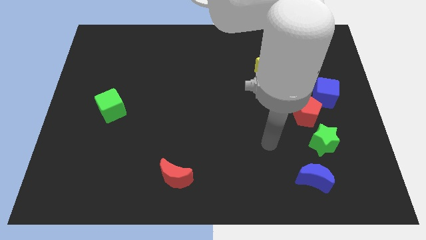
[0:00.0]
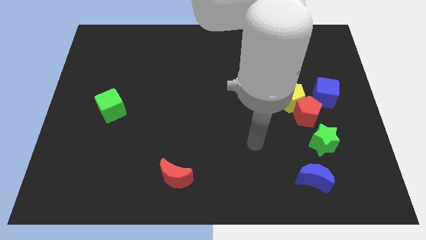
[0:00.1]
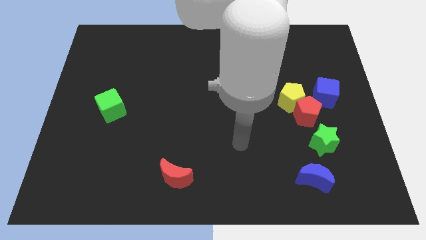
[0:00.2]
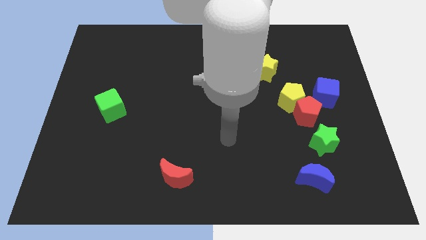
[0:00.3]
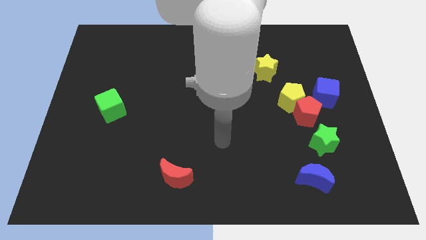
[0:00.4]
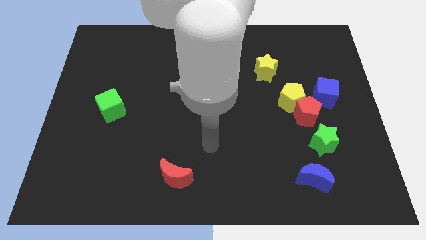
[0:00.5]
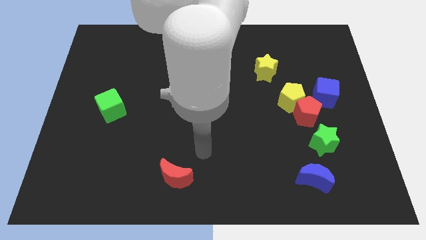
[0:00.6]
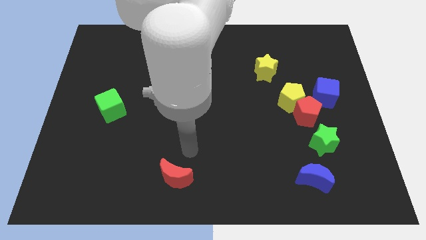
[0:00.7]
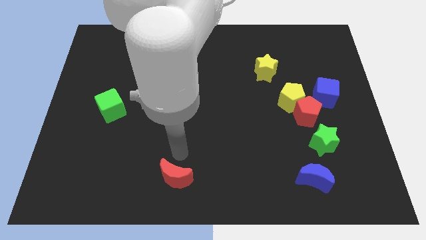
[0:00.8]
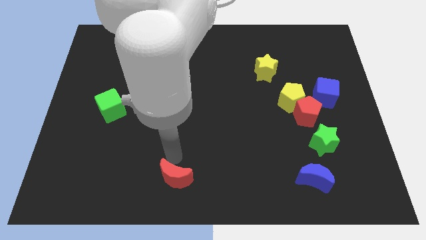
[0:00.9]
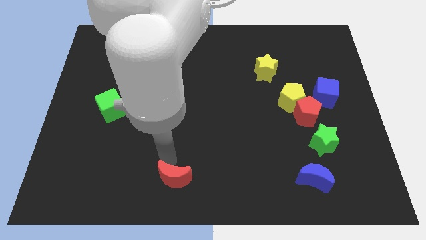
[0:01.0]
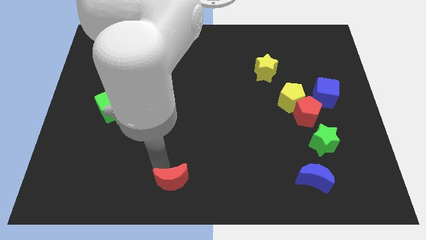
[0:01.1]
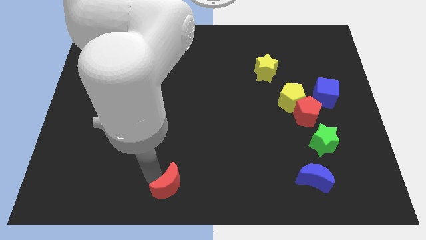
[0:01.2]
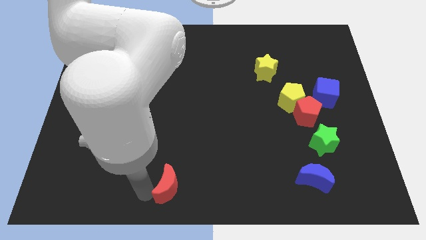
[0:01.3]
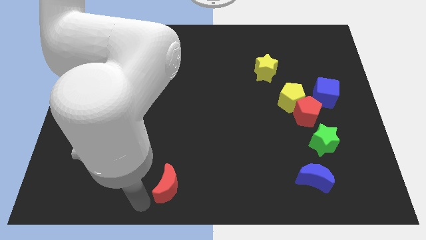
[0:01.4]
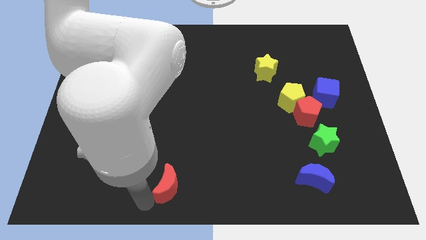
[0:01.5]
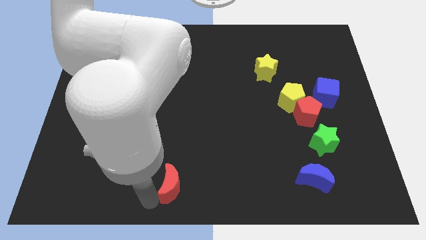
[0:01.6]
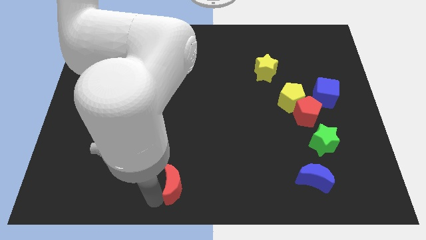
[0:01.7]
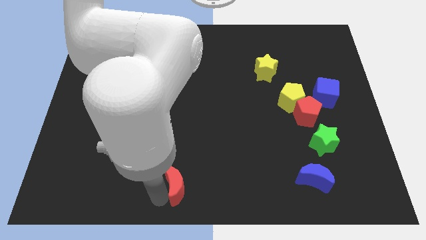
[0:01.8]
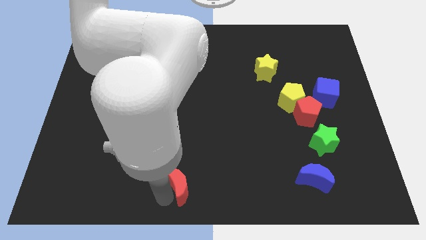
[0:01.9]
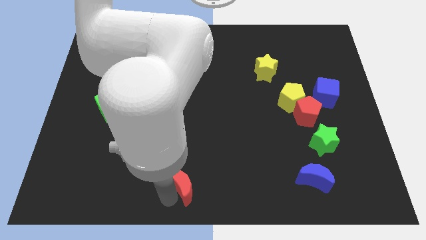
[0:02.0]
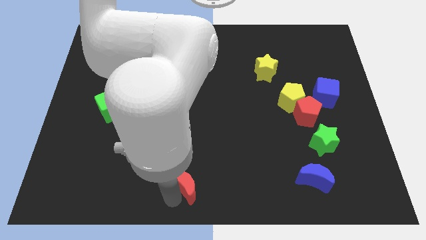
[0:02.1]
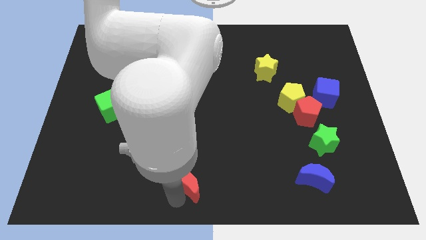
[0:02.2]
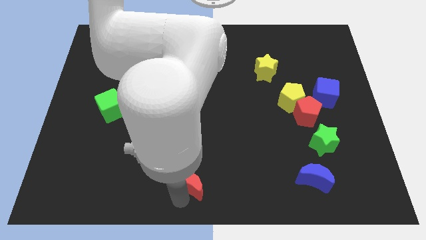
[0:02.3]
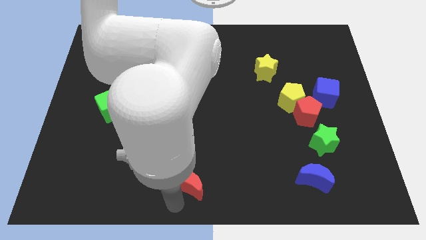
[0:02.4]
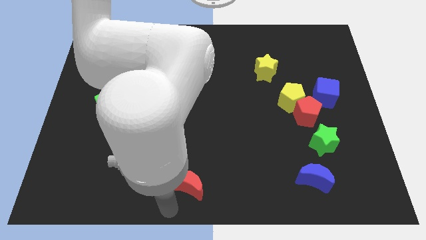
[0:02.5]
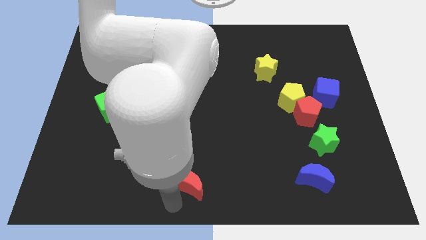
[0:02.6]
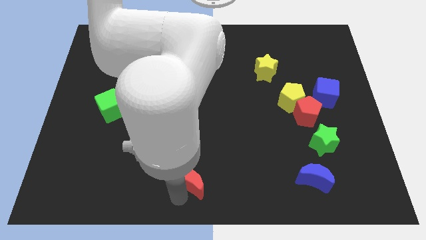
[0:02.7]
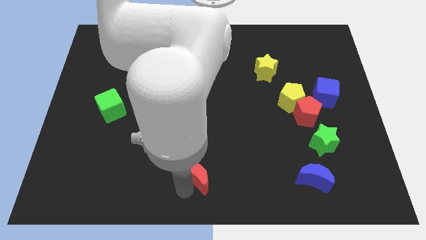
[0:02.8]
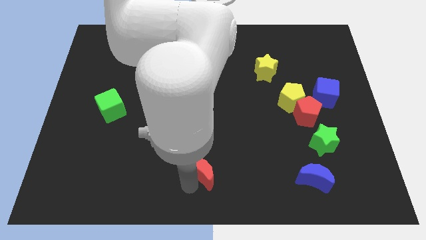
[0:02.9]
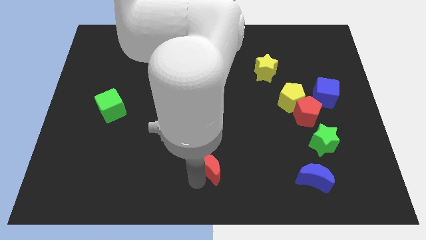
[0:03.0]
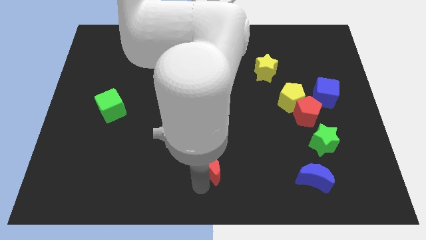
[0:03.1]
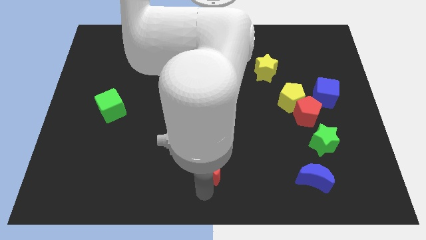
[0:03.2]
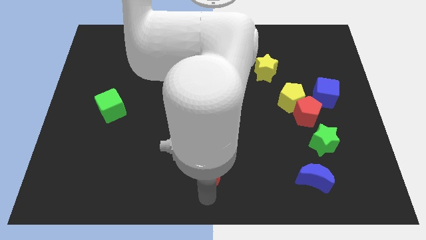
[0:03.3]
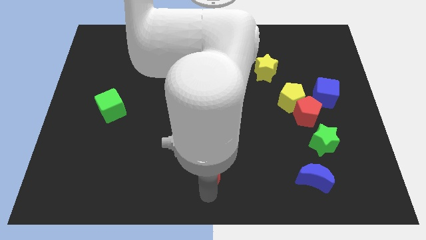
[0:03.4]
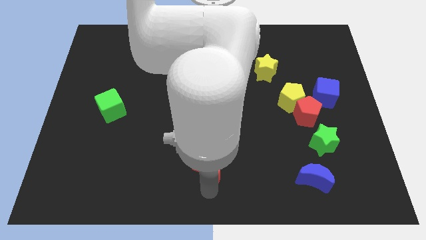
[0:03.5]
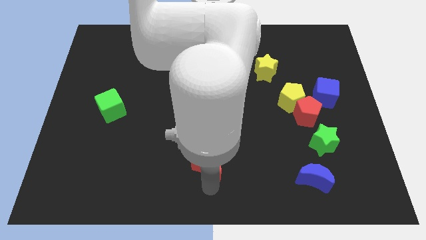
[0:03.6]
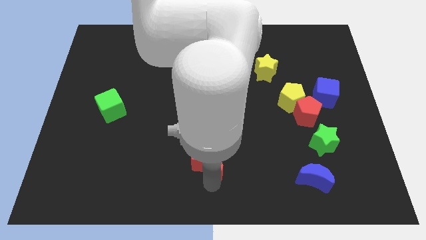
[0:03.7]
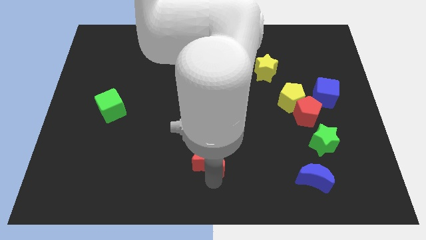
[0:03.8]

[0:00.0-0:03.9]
move the red moon upwards and to the right a bit

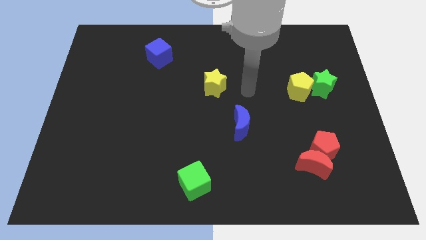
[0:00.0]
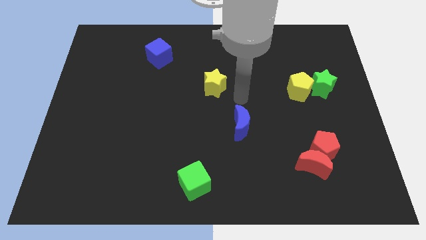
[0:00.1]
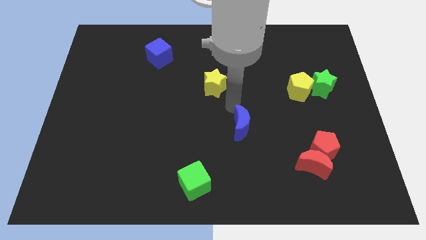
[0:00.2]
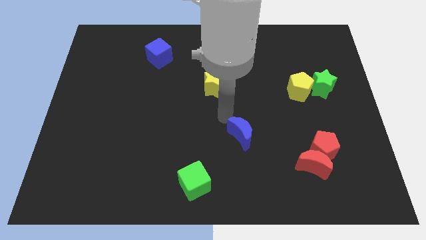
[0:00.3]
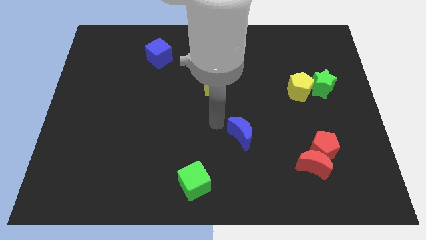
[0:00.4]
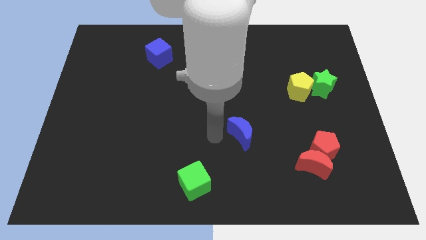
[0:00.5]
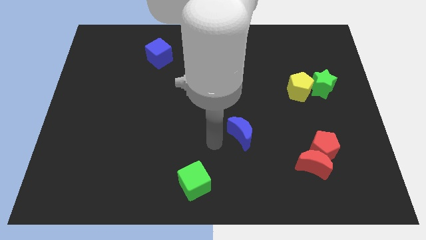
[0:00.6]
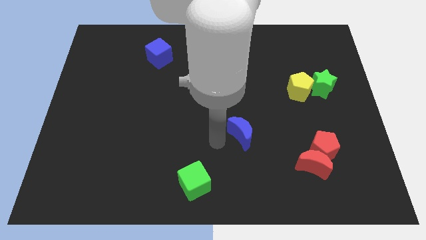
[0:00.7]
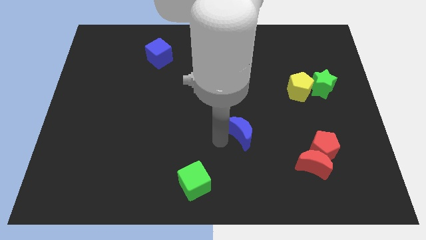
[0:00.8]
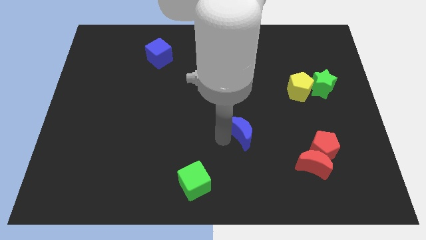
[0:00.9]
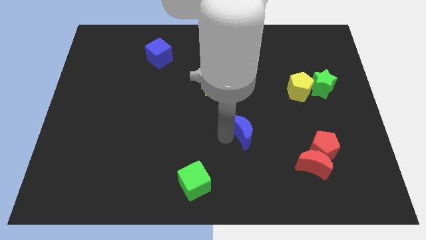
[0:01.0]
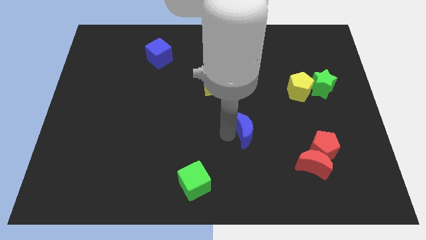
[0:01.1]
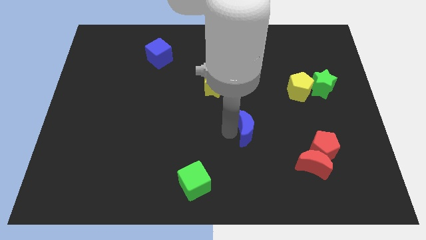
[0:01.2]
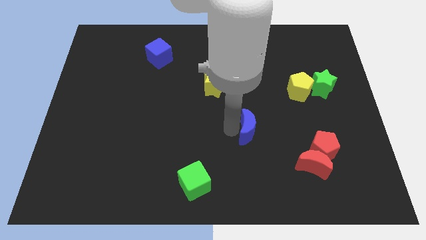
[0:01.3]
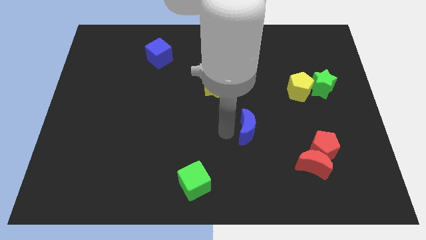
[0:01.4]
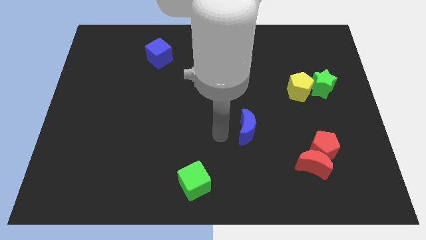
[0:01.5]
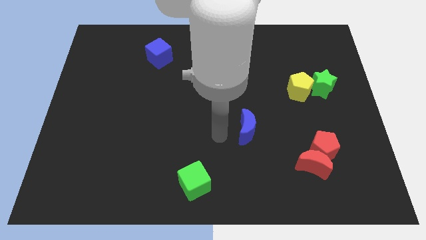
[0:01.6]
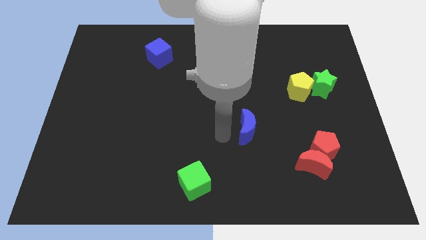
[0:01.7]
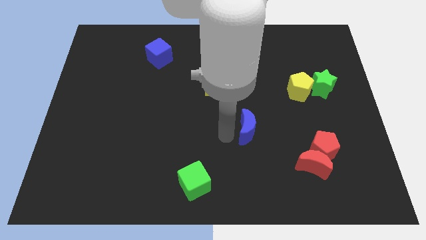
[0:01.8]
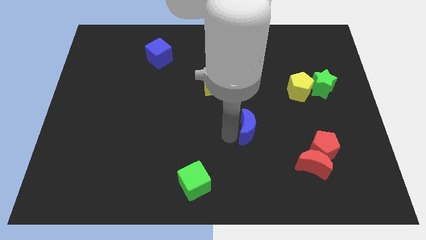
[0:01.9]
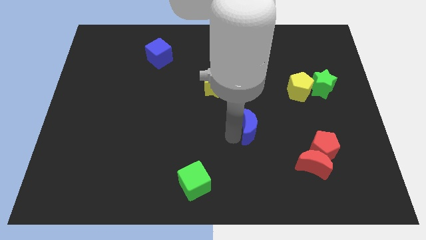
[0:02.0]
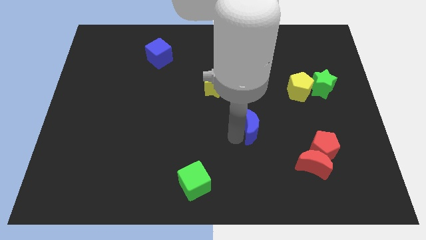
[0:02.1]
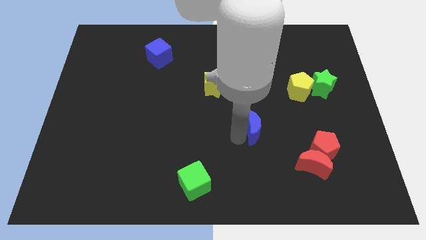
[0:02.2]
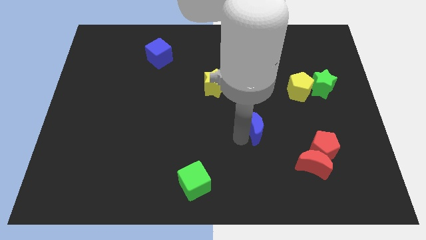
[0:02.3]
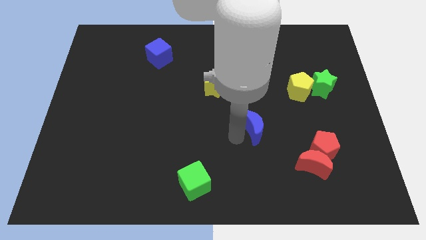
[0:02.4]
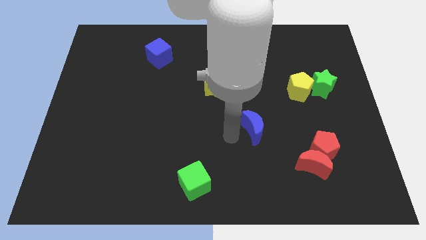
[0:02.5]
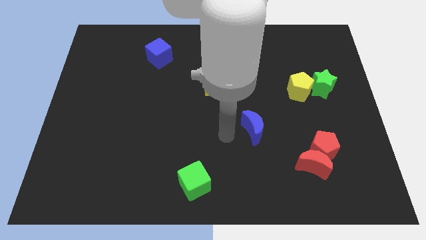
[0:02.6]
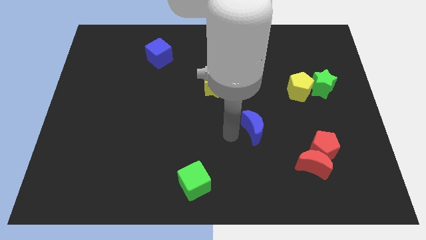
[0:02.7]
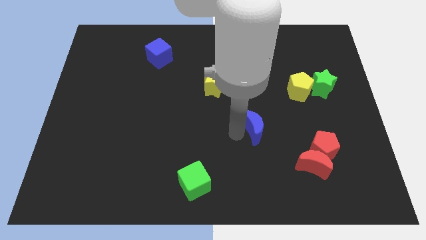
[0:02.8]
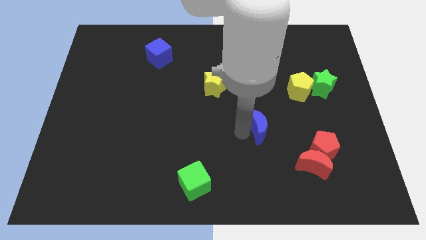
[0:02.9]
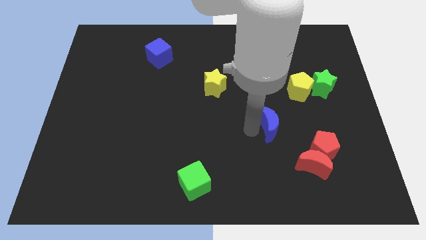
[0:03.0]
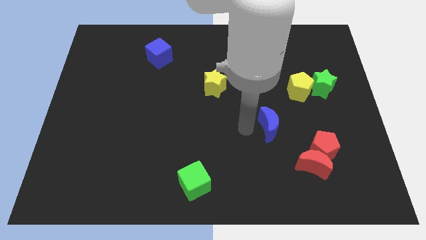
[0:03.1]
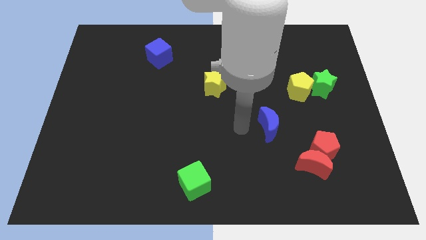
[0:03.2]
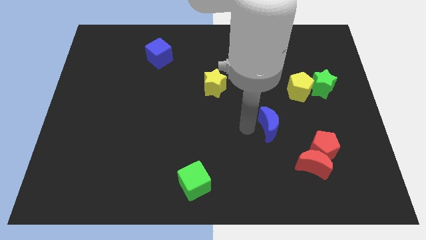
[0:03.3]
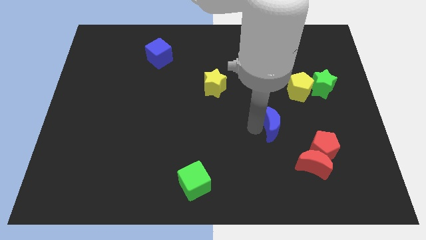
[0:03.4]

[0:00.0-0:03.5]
slide the blue moon a bit right

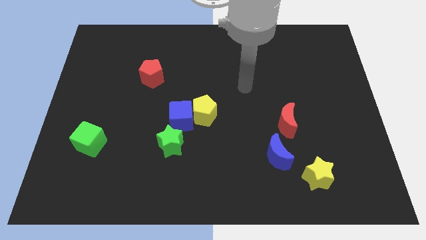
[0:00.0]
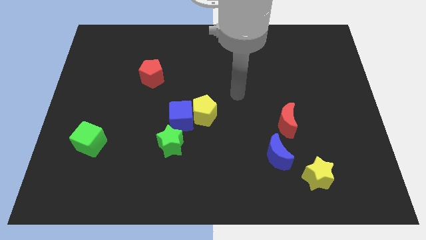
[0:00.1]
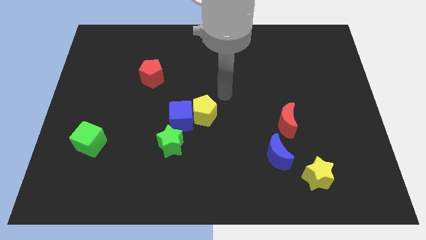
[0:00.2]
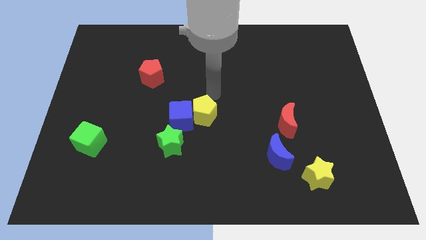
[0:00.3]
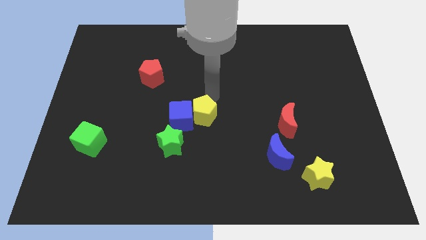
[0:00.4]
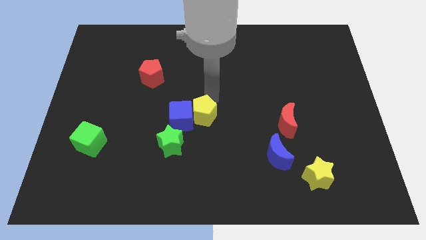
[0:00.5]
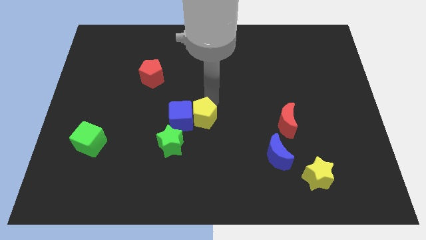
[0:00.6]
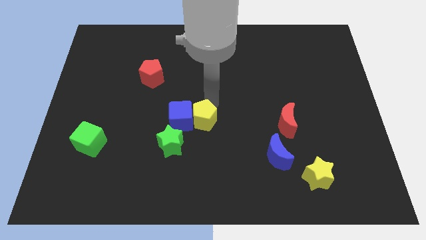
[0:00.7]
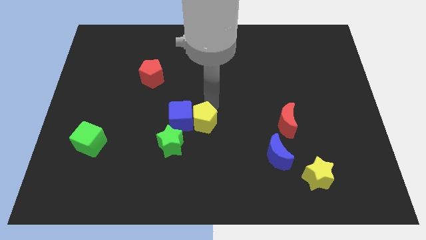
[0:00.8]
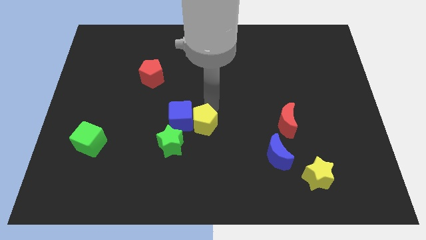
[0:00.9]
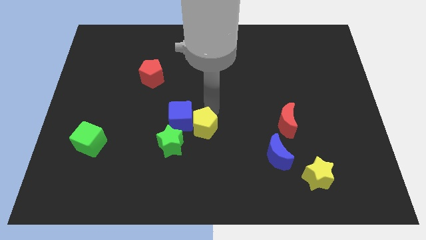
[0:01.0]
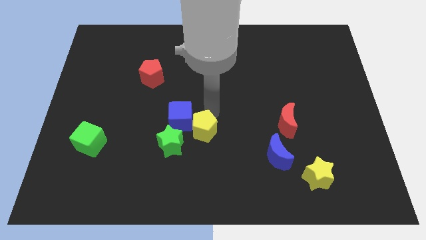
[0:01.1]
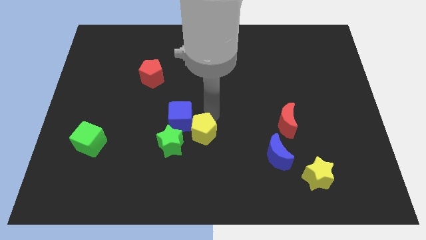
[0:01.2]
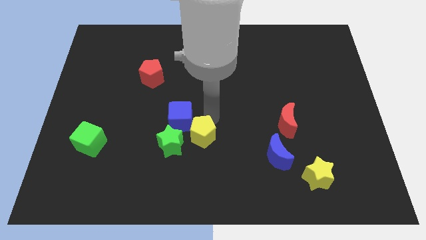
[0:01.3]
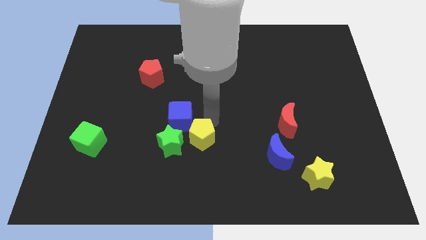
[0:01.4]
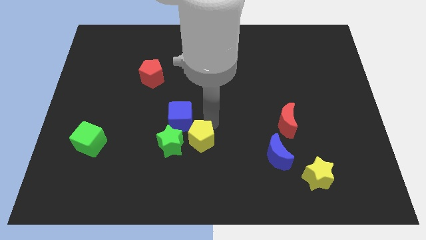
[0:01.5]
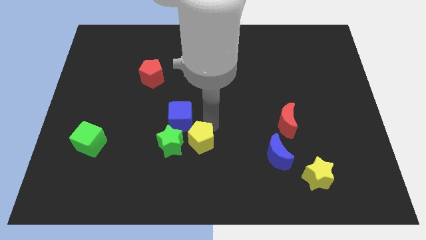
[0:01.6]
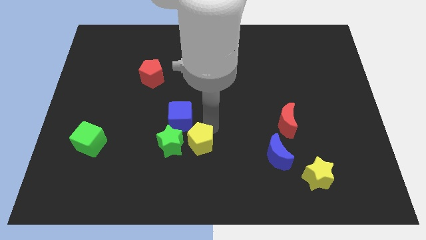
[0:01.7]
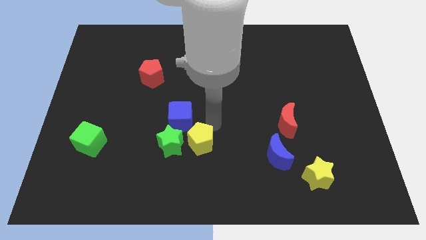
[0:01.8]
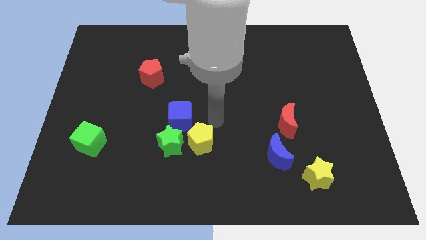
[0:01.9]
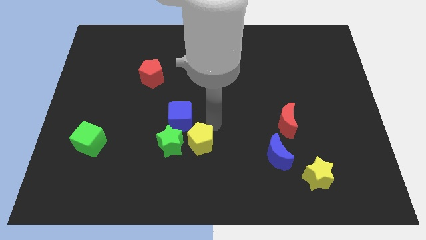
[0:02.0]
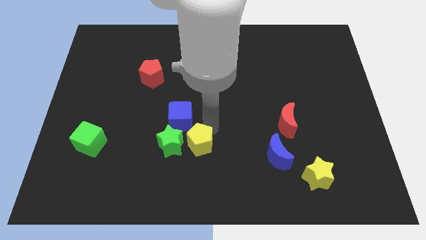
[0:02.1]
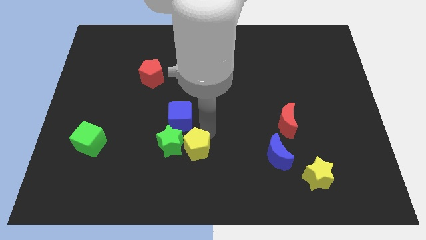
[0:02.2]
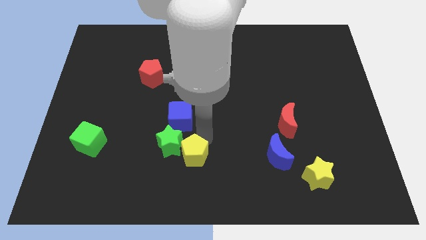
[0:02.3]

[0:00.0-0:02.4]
move the yellow pentagon somewhat downwards and to the left
